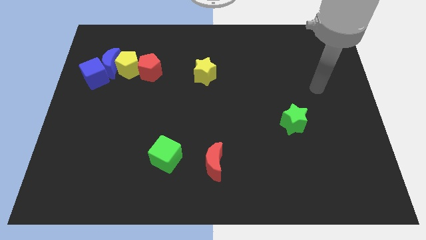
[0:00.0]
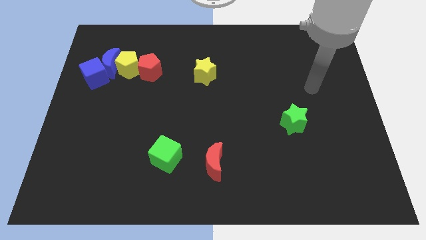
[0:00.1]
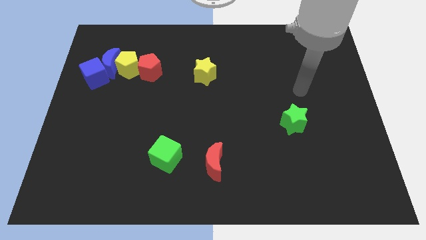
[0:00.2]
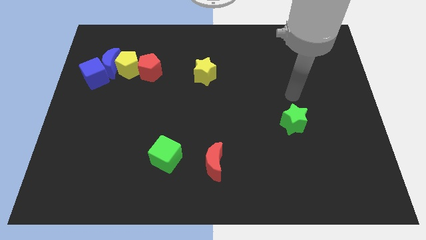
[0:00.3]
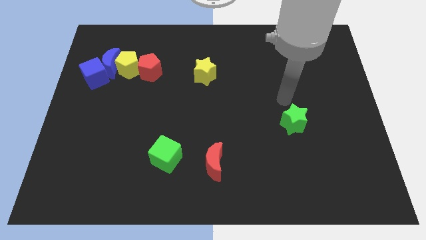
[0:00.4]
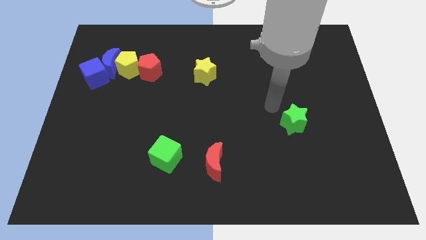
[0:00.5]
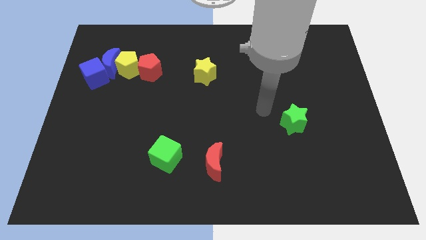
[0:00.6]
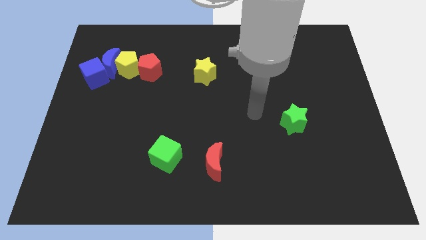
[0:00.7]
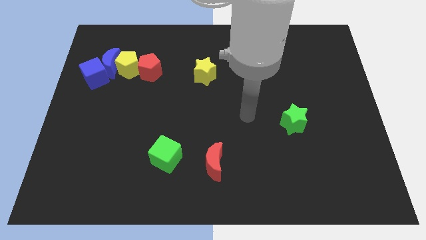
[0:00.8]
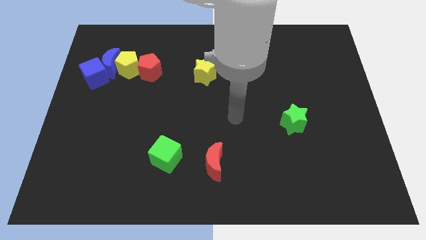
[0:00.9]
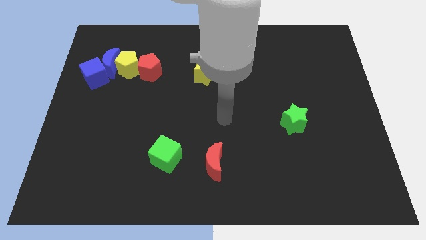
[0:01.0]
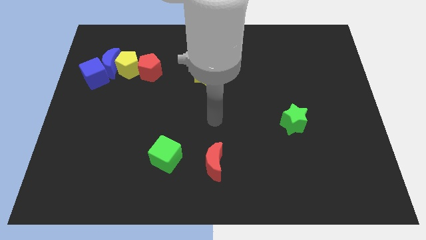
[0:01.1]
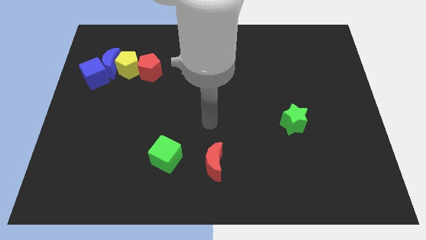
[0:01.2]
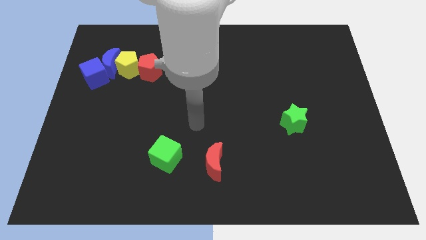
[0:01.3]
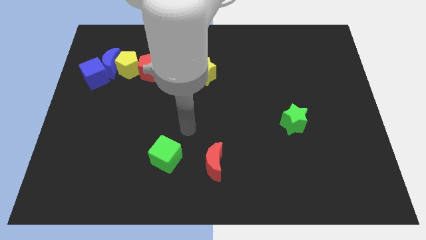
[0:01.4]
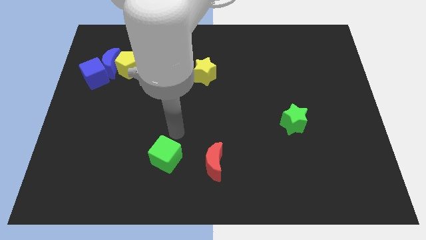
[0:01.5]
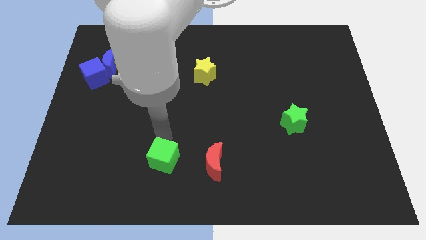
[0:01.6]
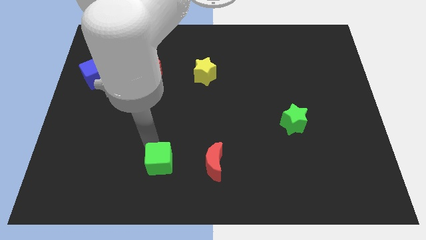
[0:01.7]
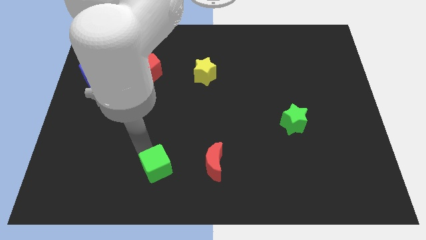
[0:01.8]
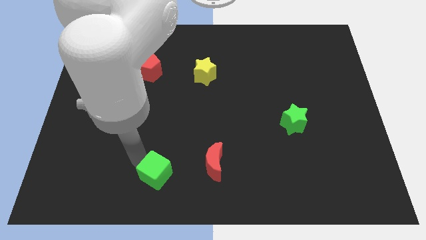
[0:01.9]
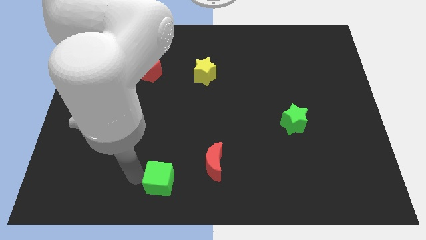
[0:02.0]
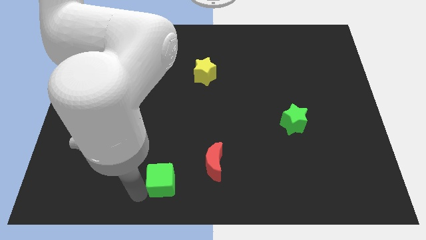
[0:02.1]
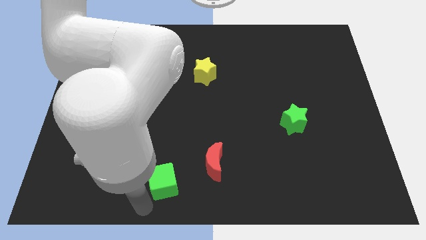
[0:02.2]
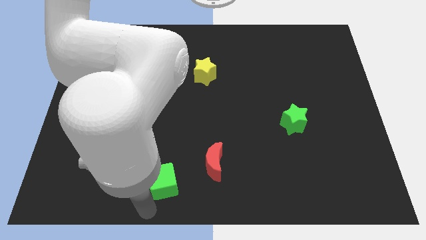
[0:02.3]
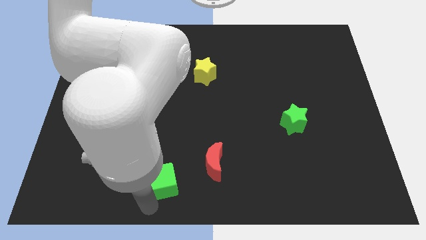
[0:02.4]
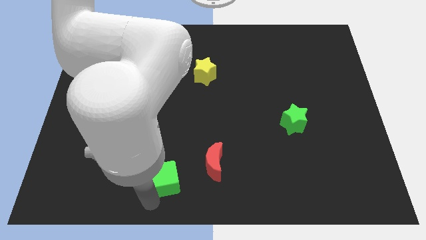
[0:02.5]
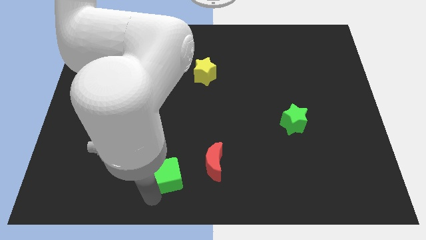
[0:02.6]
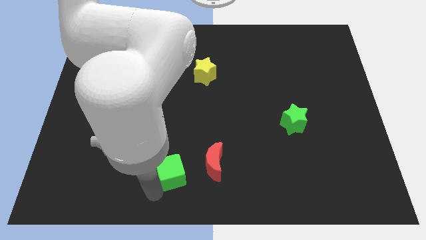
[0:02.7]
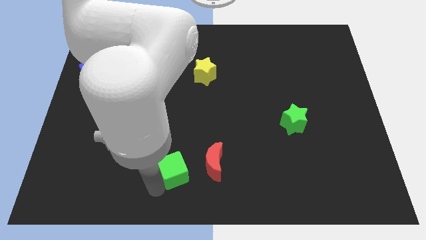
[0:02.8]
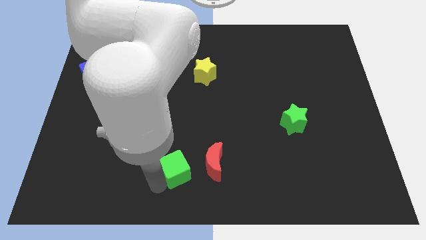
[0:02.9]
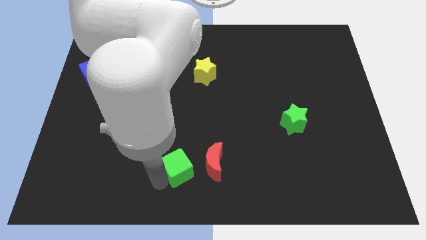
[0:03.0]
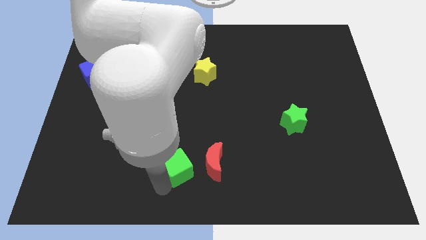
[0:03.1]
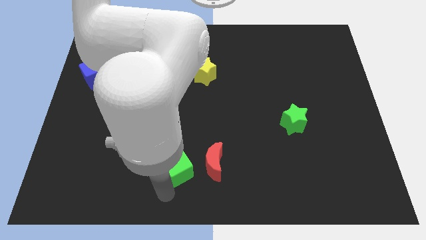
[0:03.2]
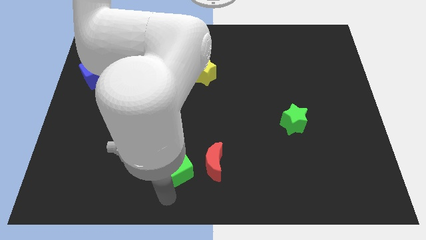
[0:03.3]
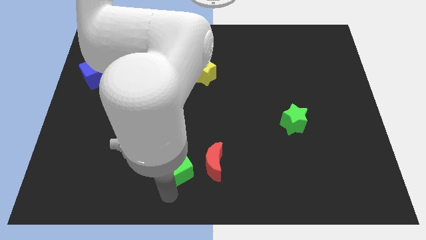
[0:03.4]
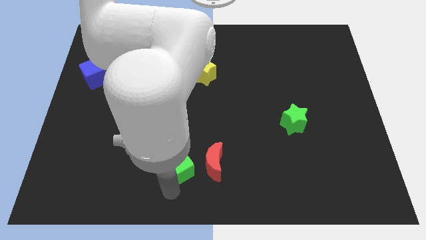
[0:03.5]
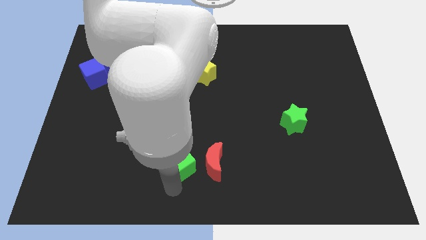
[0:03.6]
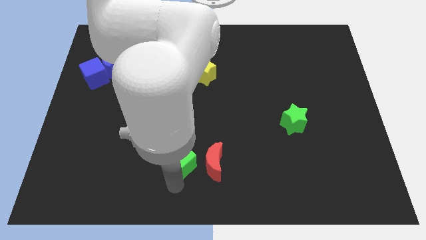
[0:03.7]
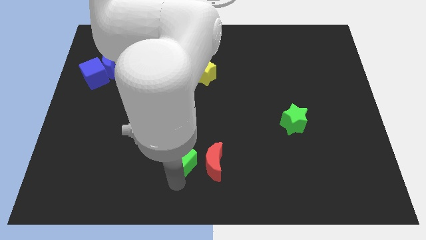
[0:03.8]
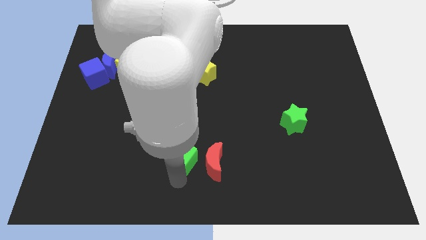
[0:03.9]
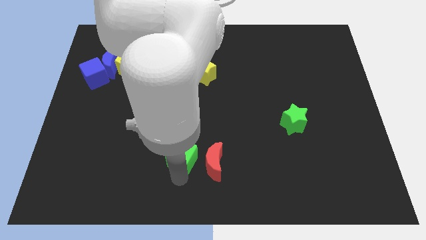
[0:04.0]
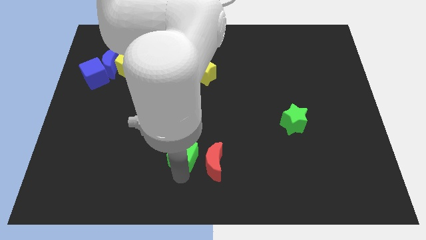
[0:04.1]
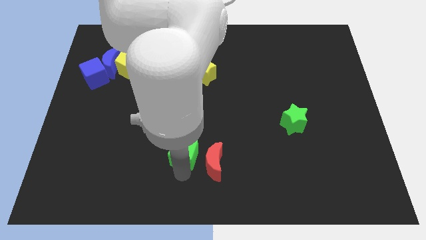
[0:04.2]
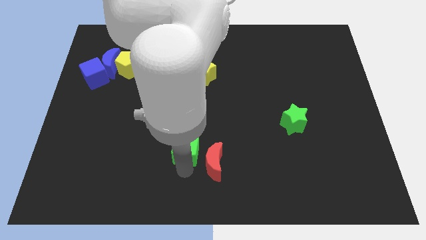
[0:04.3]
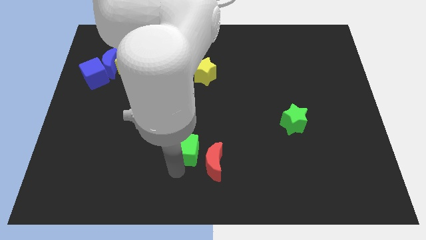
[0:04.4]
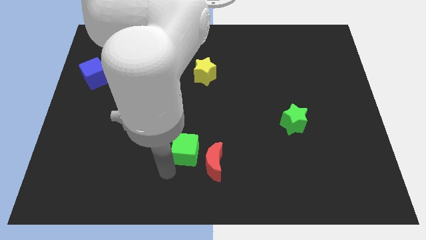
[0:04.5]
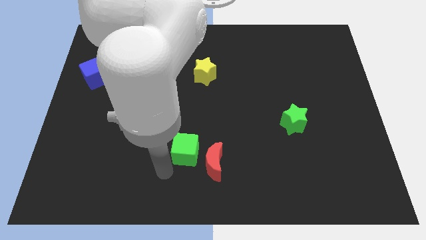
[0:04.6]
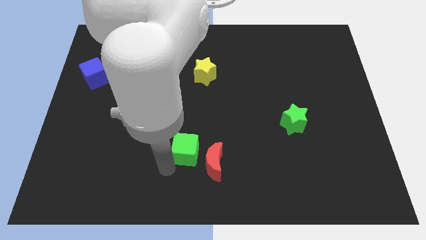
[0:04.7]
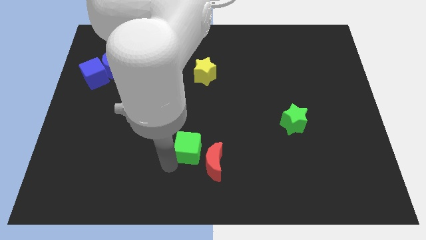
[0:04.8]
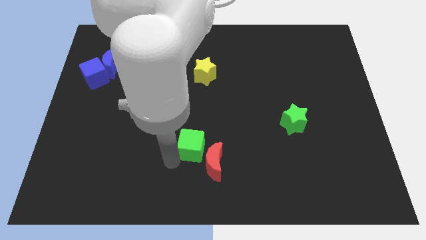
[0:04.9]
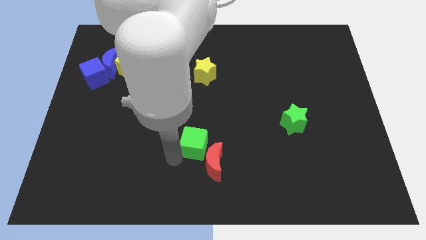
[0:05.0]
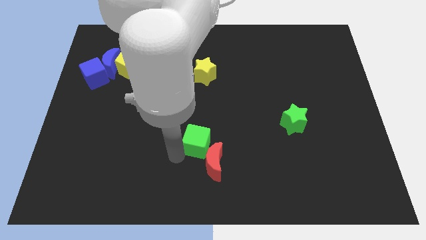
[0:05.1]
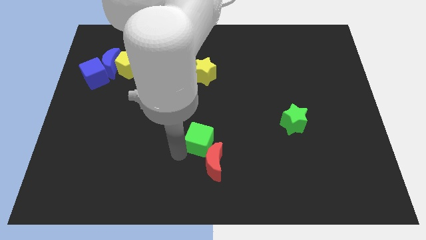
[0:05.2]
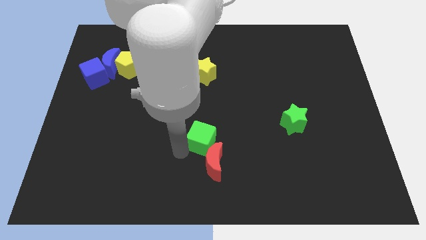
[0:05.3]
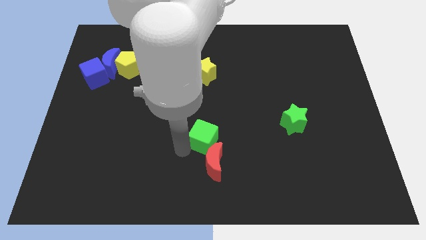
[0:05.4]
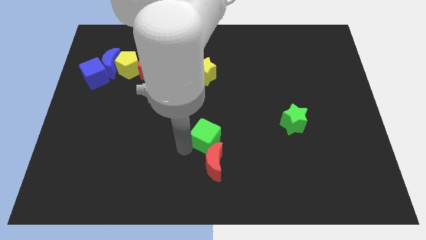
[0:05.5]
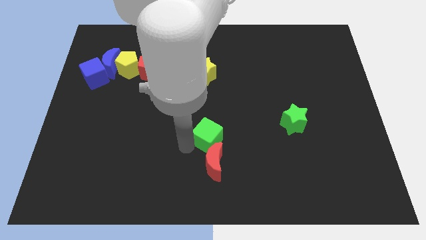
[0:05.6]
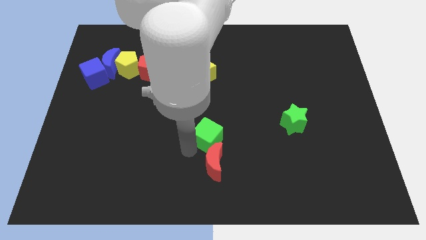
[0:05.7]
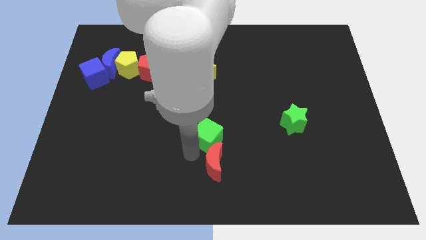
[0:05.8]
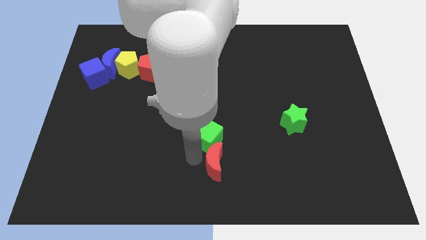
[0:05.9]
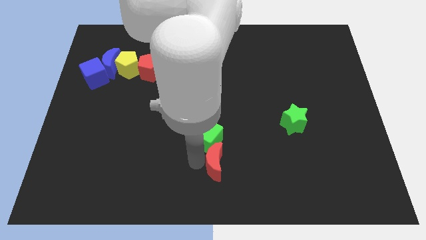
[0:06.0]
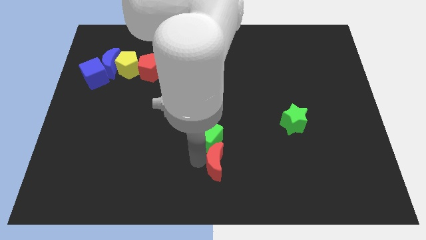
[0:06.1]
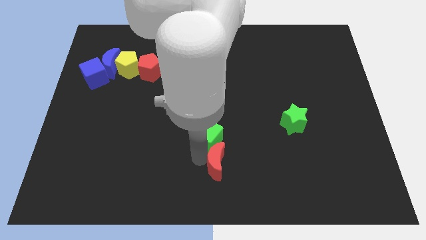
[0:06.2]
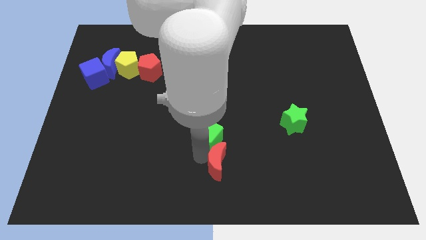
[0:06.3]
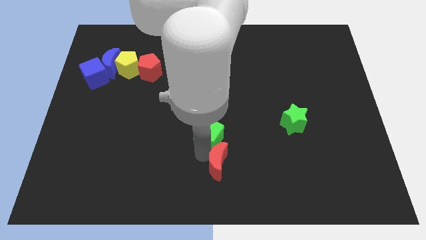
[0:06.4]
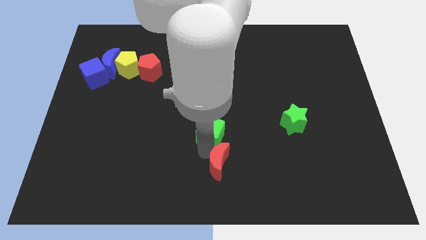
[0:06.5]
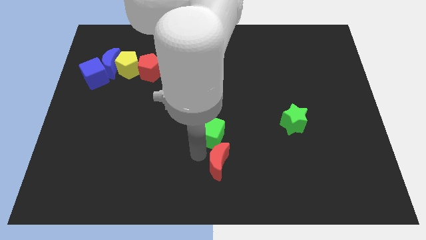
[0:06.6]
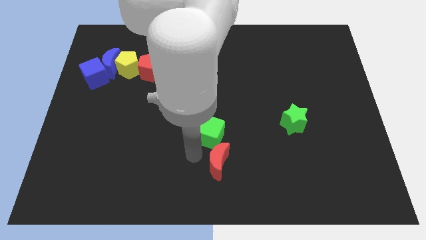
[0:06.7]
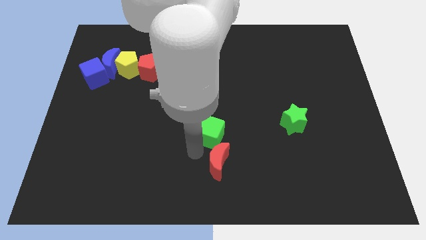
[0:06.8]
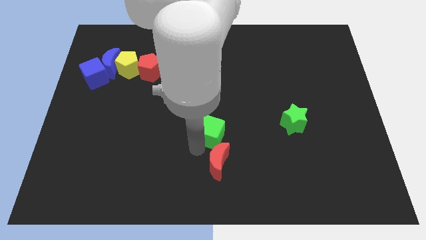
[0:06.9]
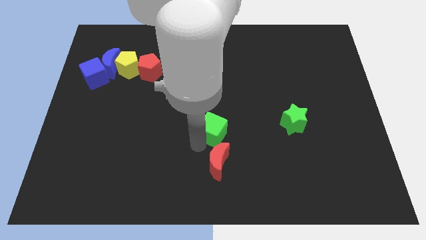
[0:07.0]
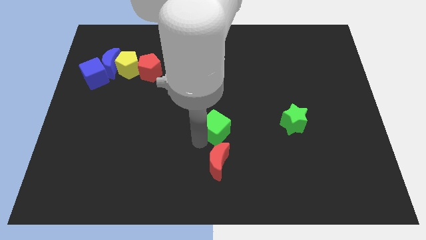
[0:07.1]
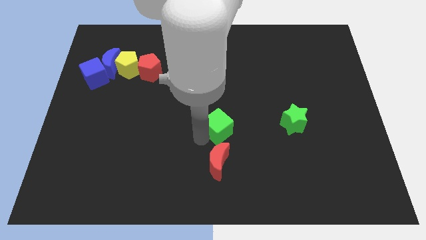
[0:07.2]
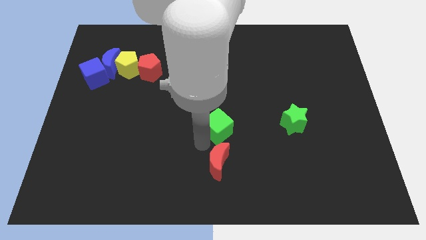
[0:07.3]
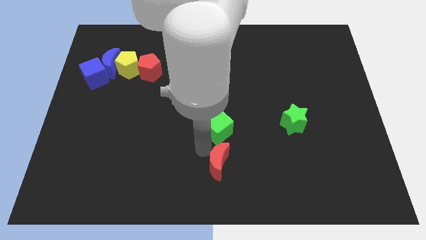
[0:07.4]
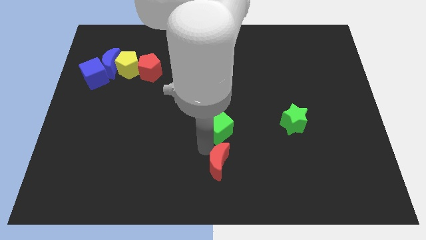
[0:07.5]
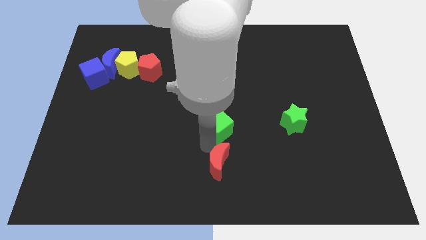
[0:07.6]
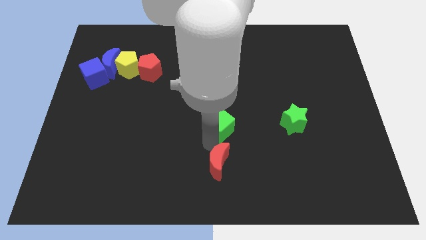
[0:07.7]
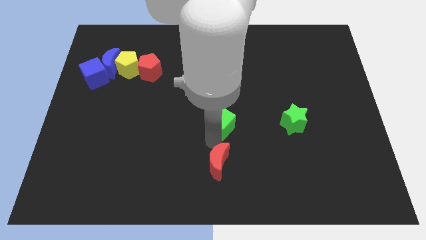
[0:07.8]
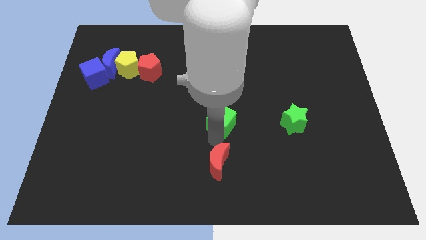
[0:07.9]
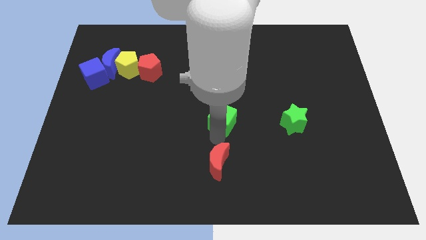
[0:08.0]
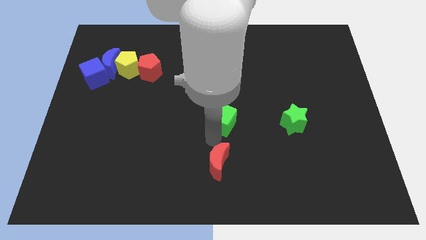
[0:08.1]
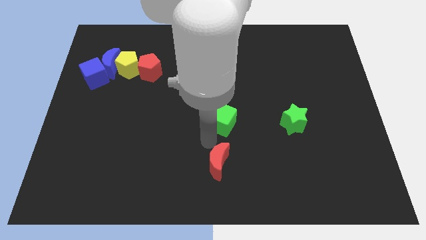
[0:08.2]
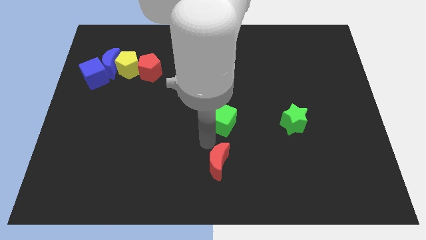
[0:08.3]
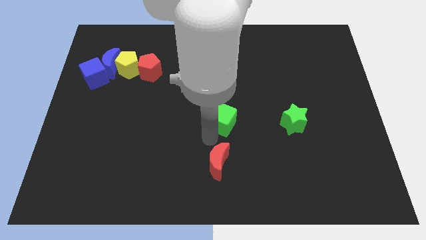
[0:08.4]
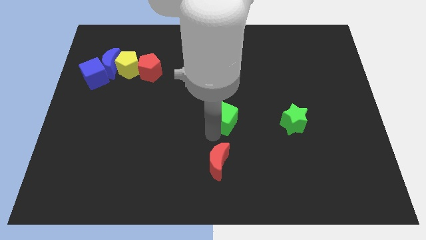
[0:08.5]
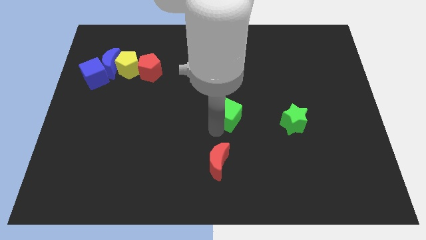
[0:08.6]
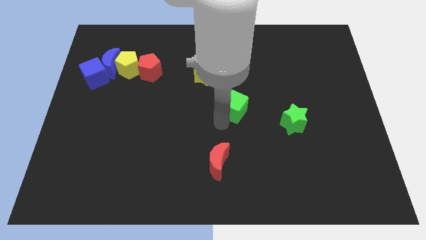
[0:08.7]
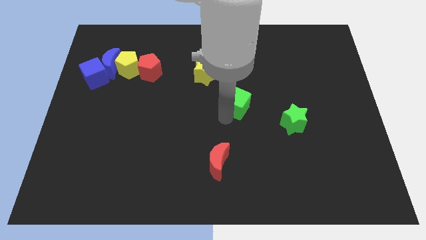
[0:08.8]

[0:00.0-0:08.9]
slide the green cube up and right
